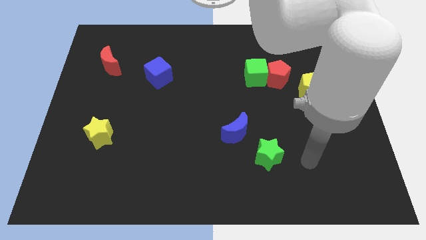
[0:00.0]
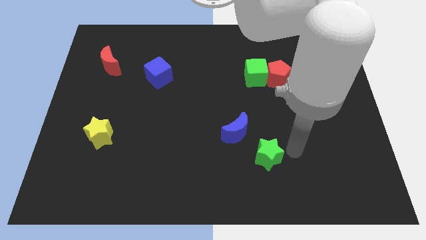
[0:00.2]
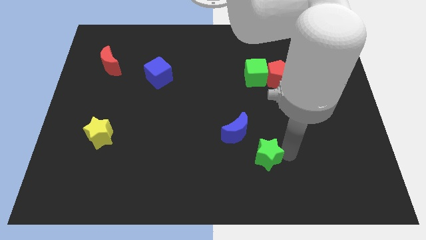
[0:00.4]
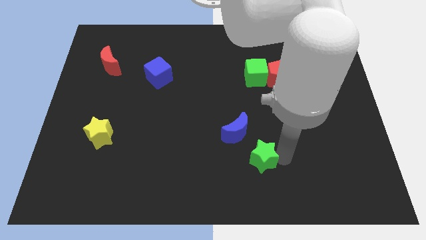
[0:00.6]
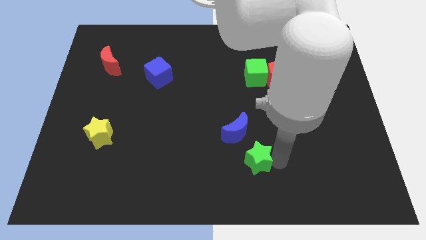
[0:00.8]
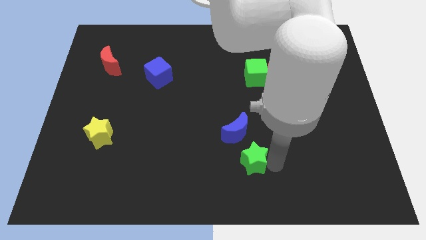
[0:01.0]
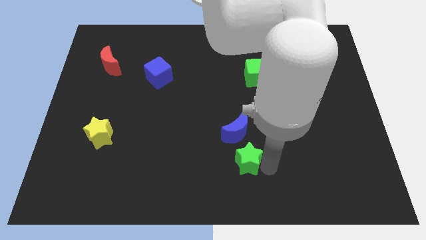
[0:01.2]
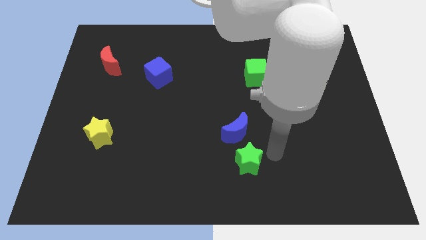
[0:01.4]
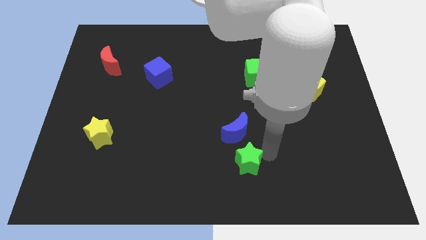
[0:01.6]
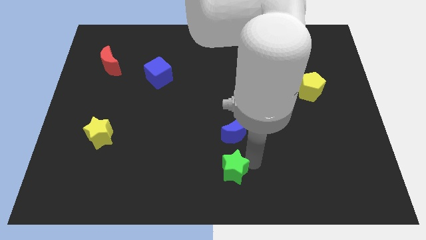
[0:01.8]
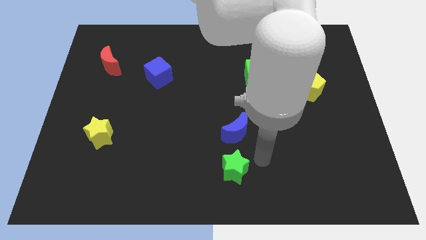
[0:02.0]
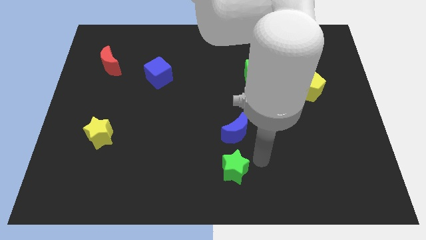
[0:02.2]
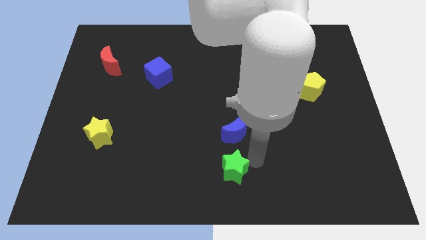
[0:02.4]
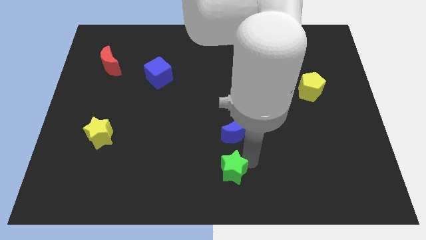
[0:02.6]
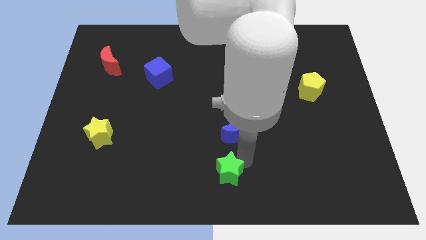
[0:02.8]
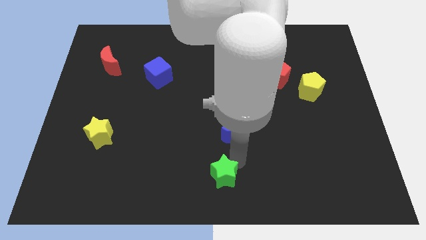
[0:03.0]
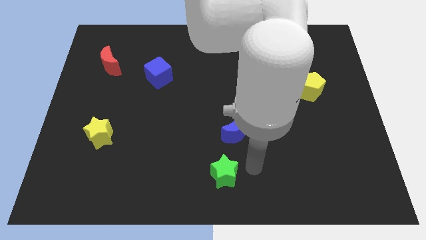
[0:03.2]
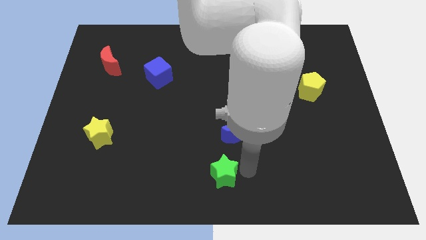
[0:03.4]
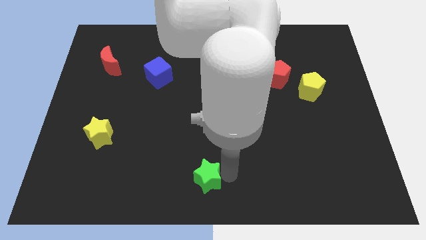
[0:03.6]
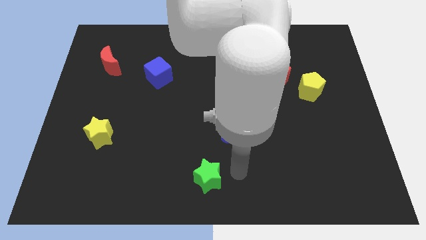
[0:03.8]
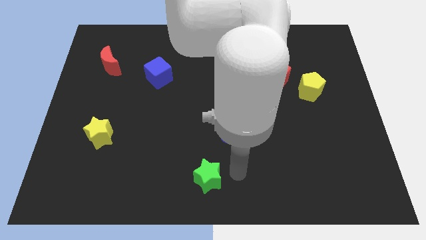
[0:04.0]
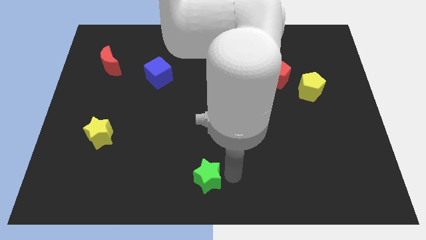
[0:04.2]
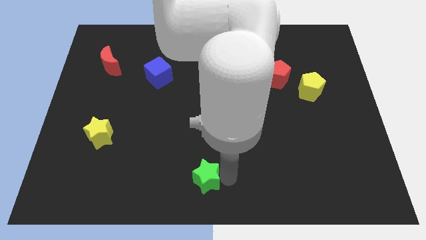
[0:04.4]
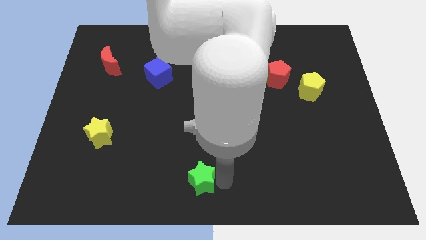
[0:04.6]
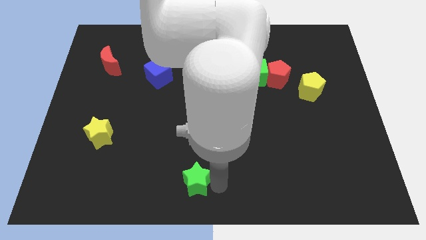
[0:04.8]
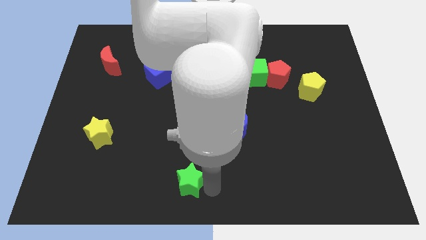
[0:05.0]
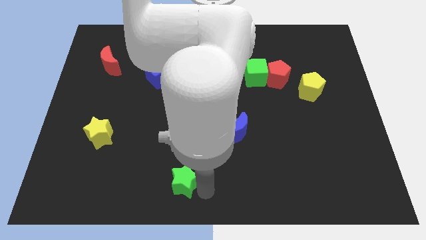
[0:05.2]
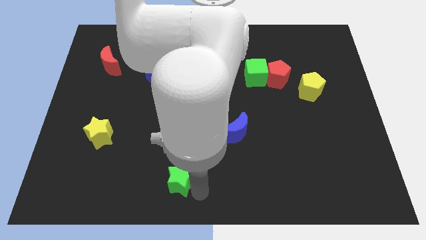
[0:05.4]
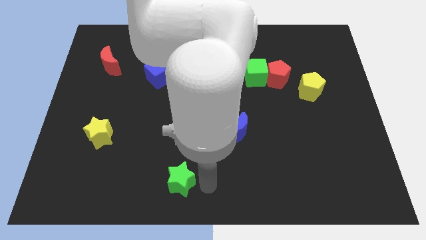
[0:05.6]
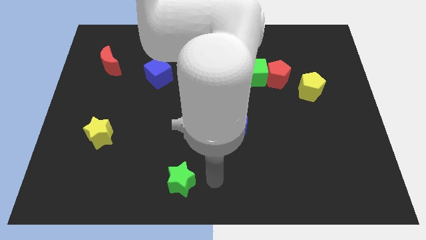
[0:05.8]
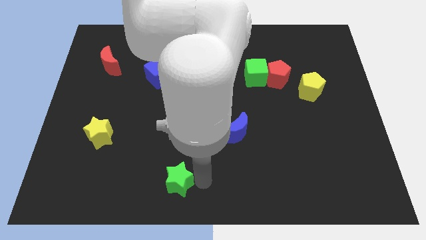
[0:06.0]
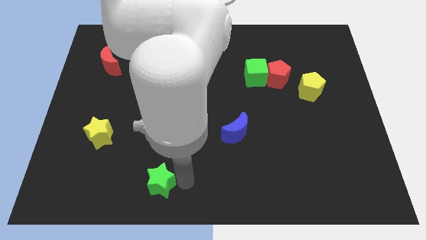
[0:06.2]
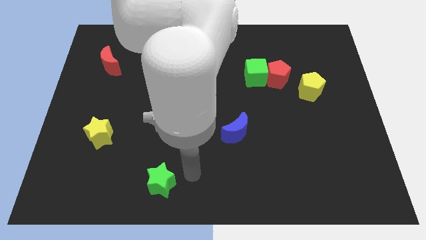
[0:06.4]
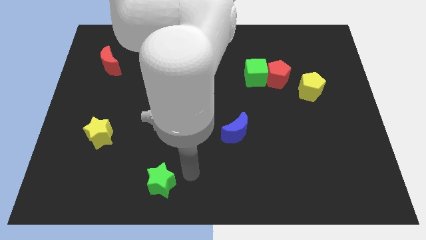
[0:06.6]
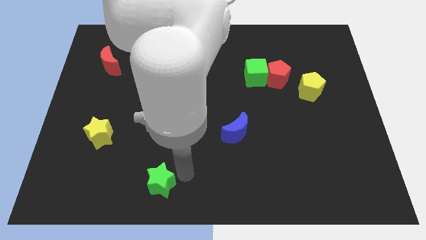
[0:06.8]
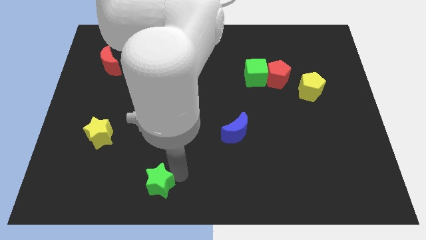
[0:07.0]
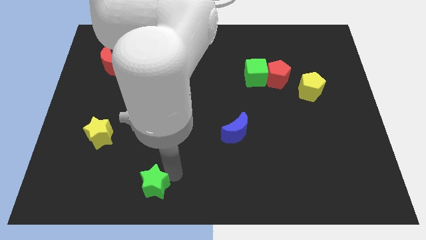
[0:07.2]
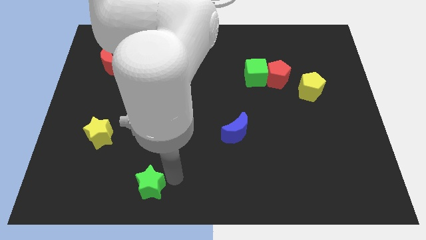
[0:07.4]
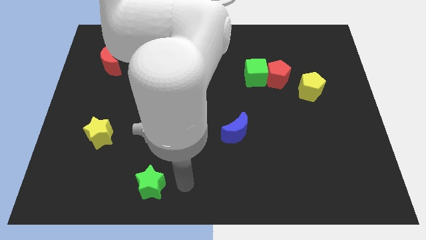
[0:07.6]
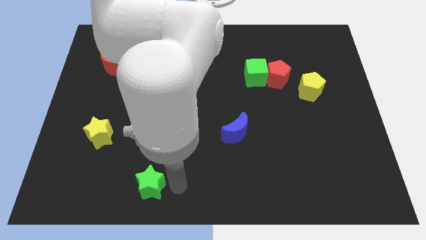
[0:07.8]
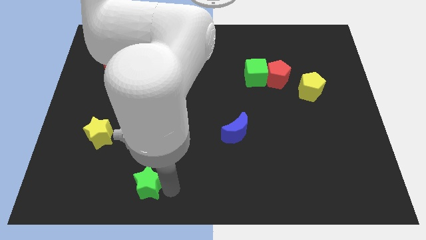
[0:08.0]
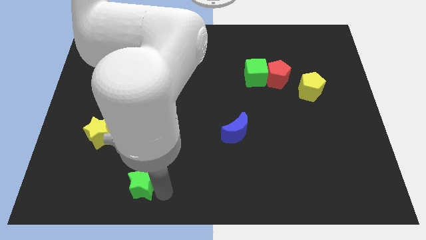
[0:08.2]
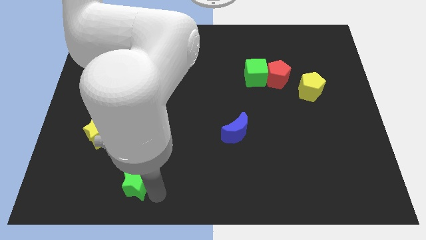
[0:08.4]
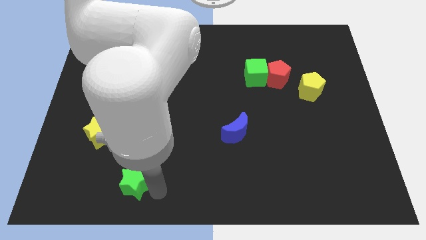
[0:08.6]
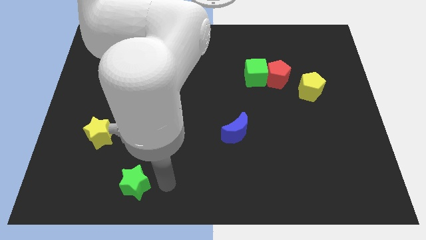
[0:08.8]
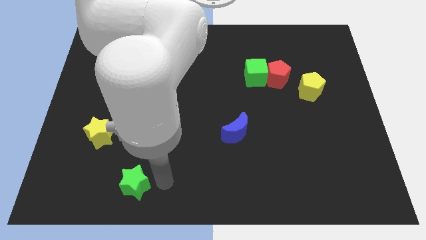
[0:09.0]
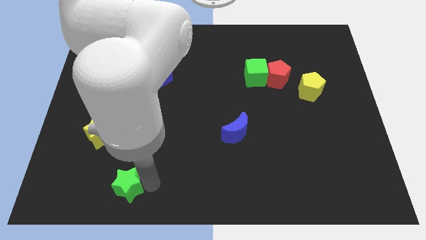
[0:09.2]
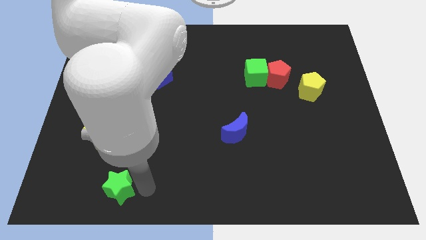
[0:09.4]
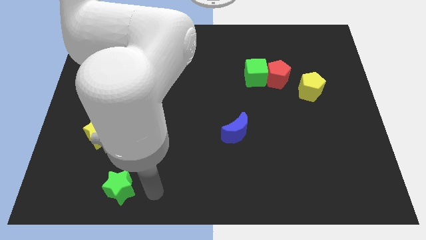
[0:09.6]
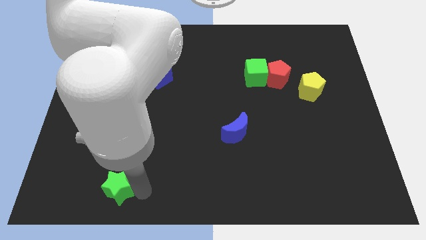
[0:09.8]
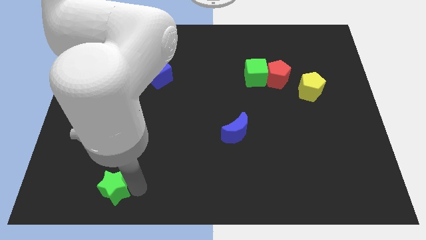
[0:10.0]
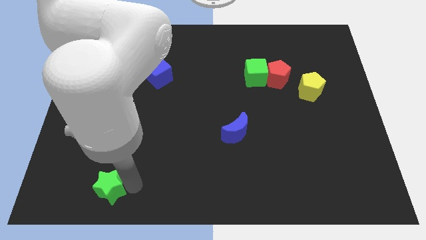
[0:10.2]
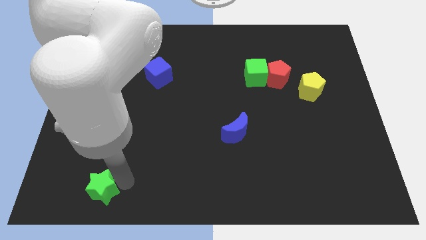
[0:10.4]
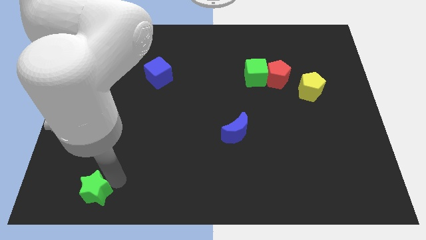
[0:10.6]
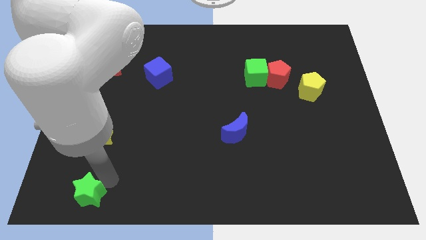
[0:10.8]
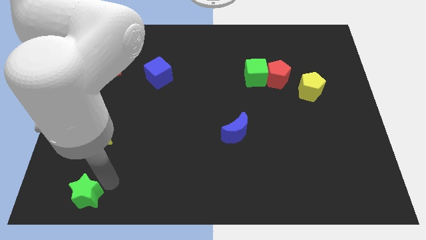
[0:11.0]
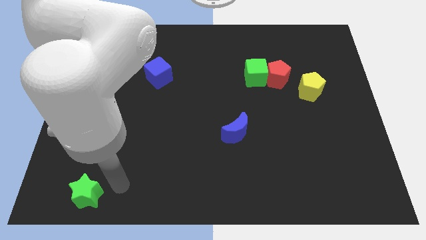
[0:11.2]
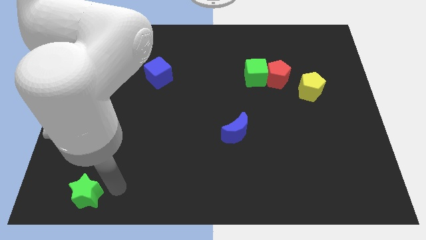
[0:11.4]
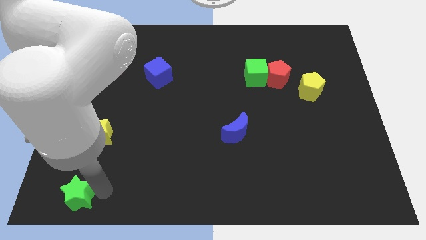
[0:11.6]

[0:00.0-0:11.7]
slide the green star to the lower left corner

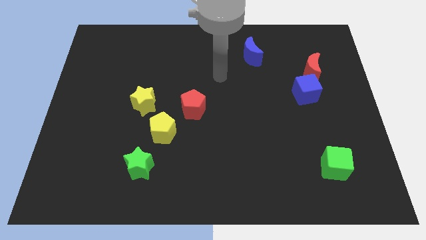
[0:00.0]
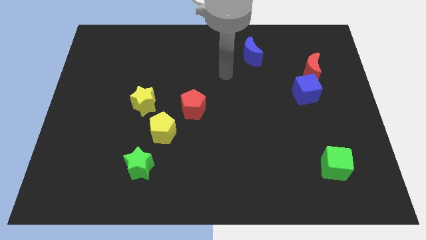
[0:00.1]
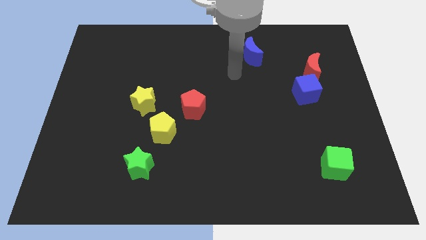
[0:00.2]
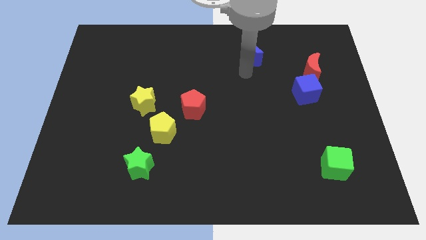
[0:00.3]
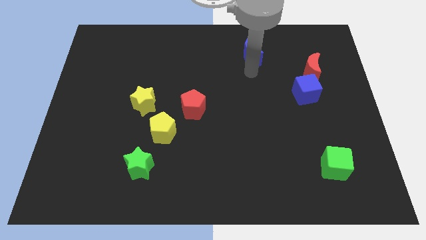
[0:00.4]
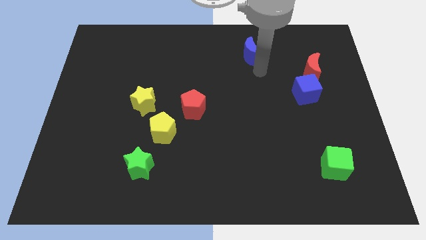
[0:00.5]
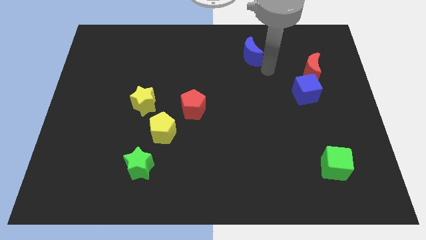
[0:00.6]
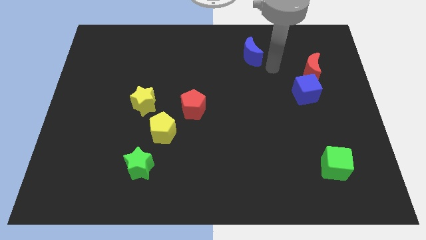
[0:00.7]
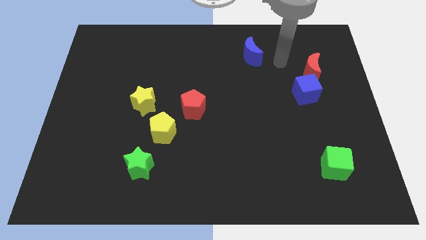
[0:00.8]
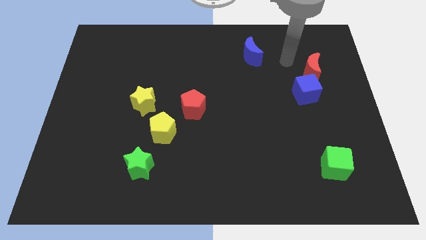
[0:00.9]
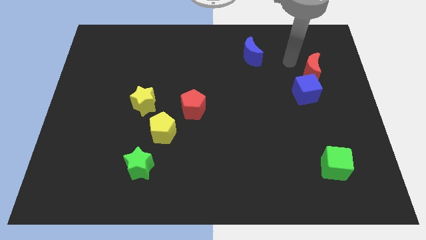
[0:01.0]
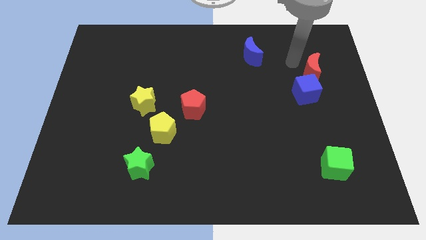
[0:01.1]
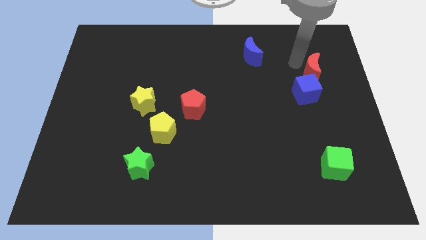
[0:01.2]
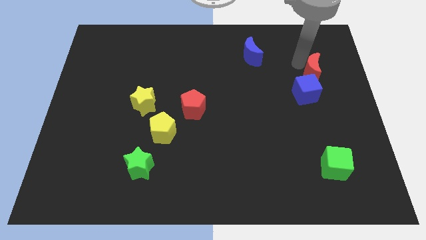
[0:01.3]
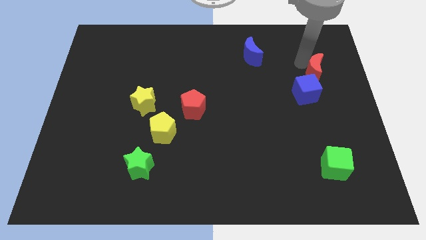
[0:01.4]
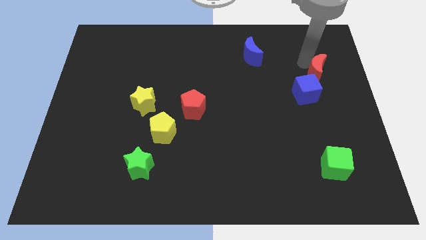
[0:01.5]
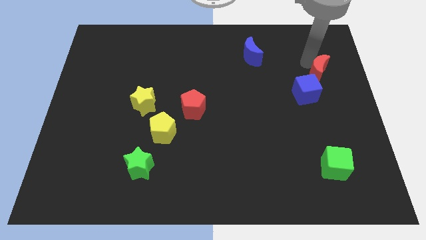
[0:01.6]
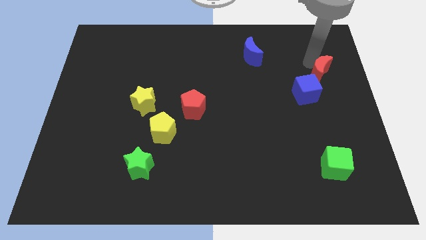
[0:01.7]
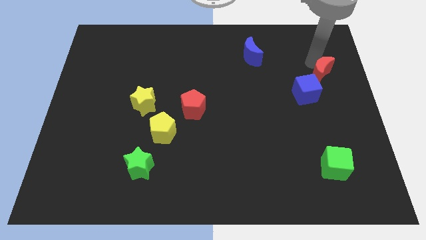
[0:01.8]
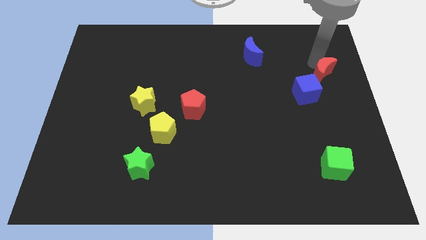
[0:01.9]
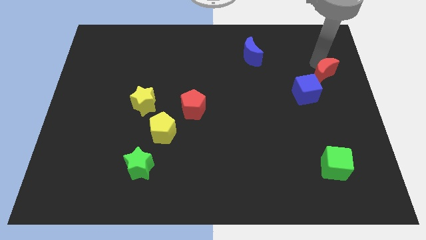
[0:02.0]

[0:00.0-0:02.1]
push the red moon to the right side of the board

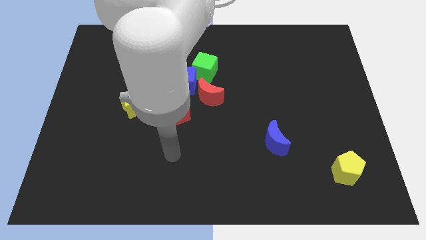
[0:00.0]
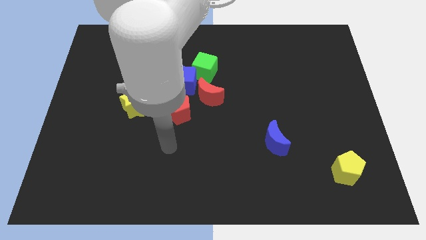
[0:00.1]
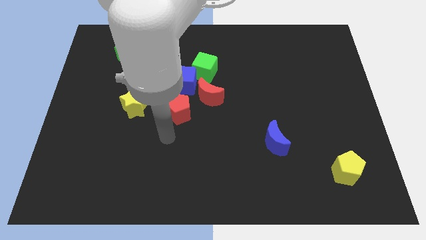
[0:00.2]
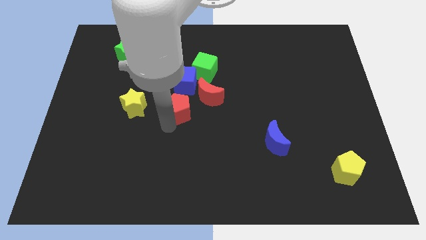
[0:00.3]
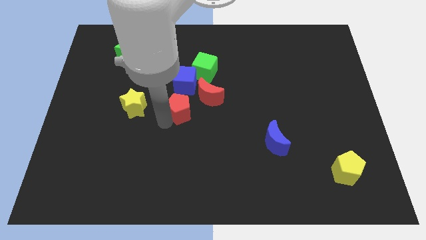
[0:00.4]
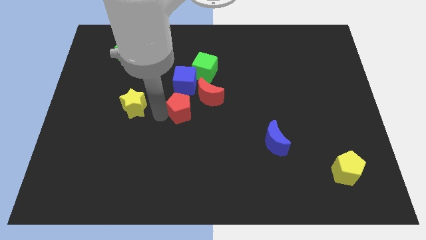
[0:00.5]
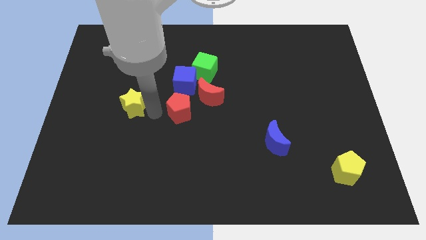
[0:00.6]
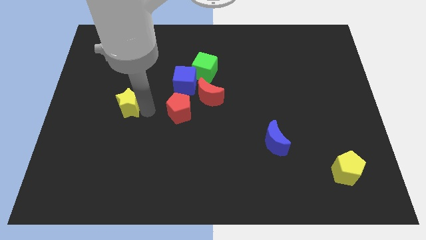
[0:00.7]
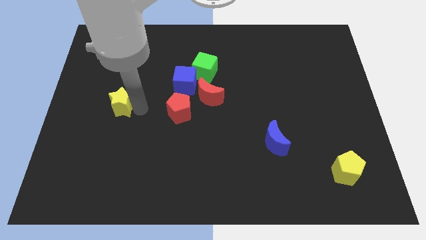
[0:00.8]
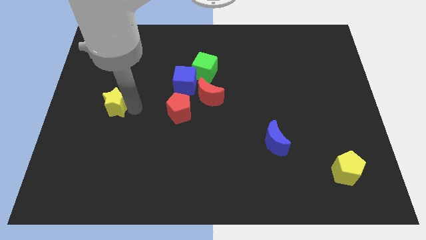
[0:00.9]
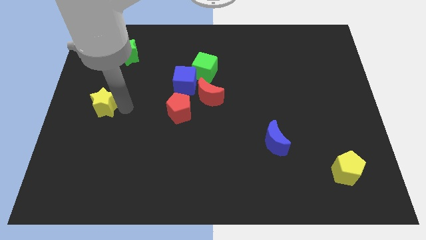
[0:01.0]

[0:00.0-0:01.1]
put the yellow star to the left side of the board
